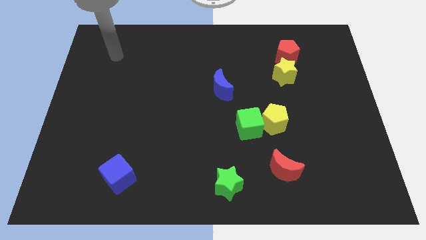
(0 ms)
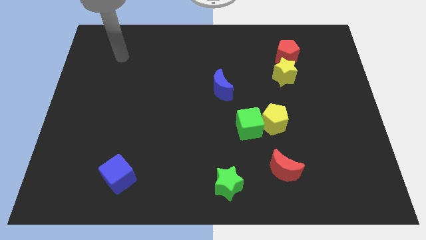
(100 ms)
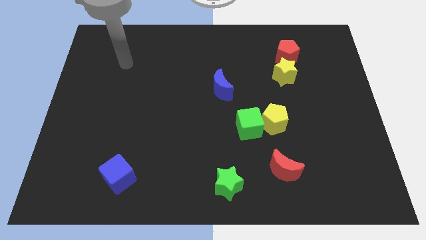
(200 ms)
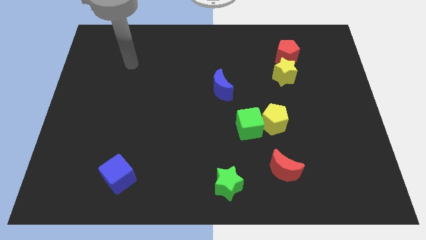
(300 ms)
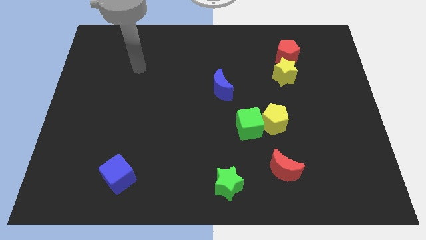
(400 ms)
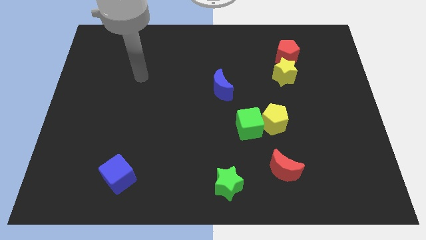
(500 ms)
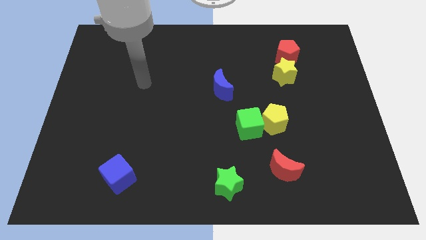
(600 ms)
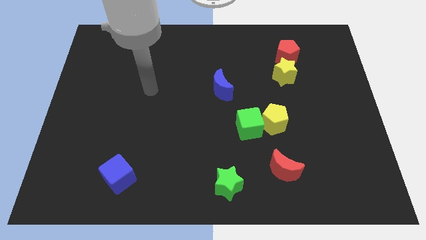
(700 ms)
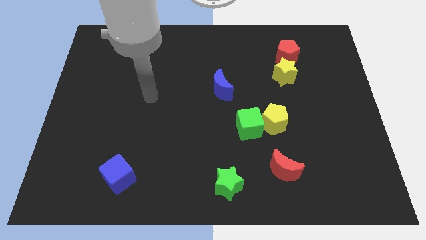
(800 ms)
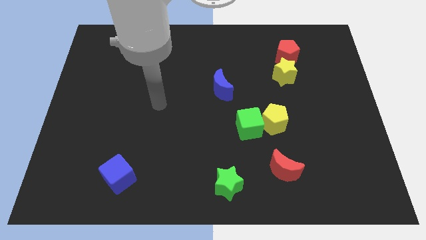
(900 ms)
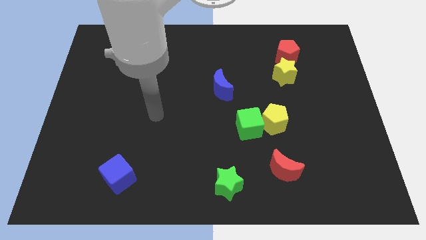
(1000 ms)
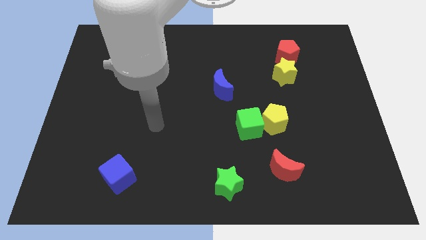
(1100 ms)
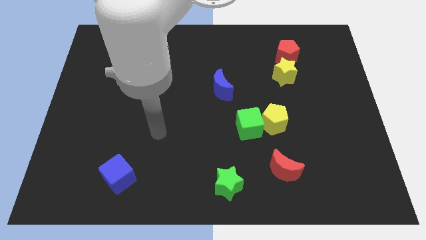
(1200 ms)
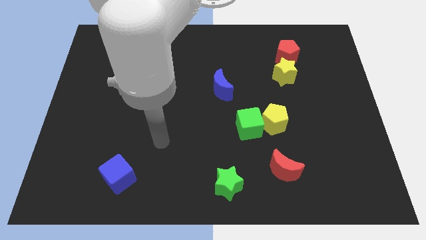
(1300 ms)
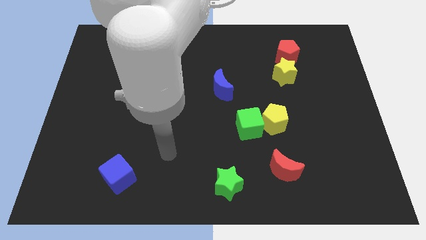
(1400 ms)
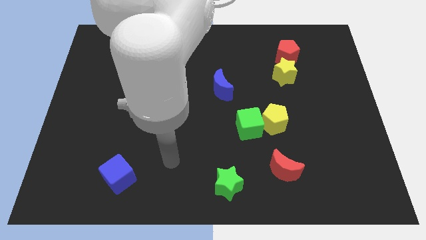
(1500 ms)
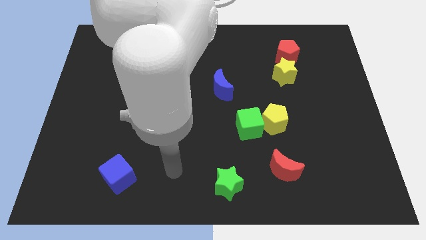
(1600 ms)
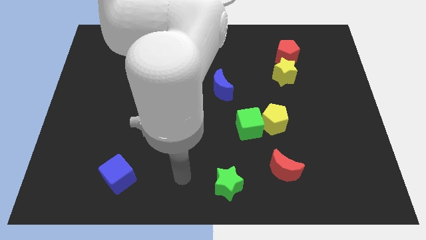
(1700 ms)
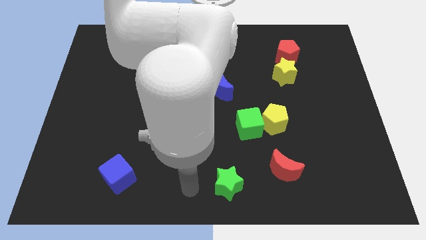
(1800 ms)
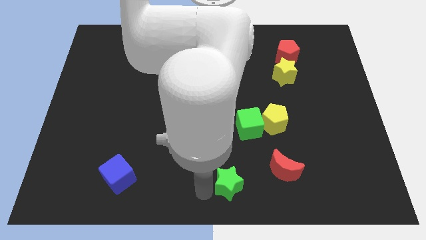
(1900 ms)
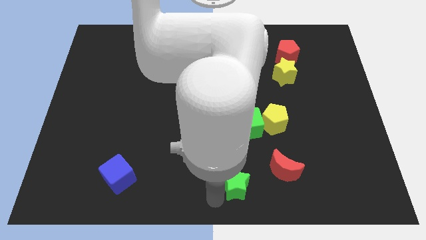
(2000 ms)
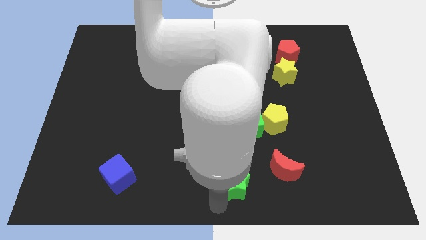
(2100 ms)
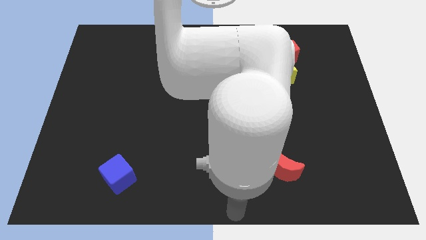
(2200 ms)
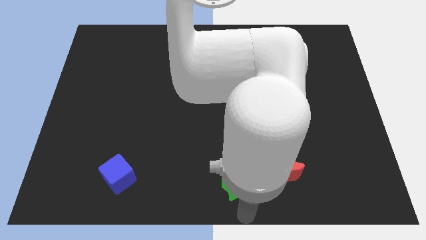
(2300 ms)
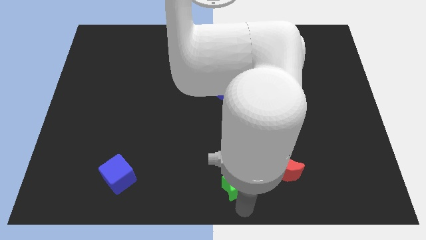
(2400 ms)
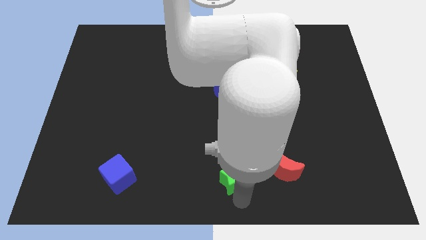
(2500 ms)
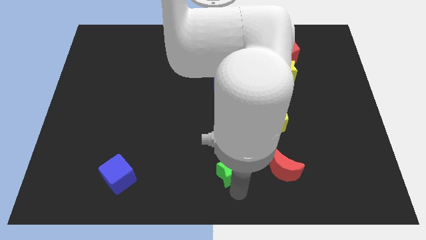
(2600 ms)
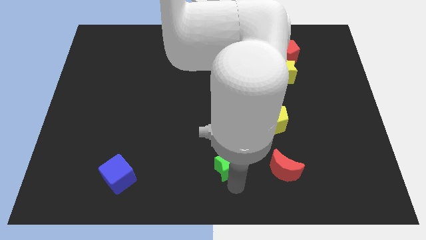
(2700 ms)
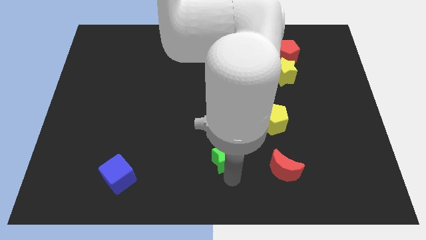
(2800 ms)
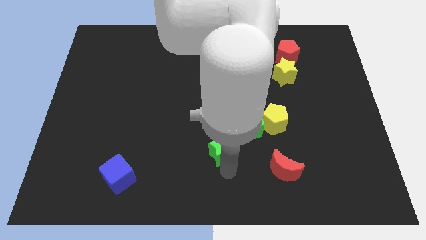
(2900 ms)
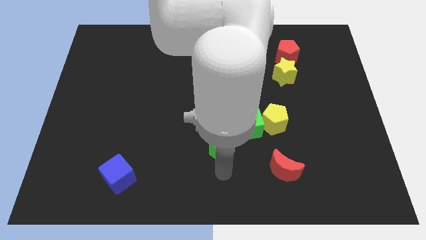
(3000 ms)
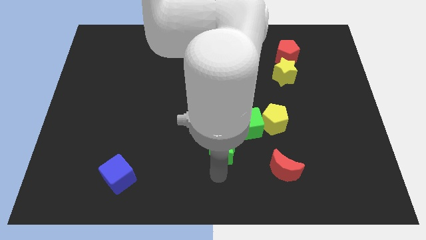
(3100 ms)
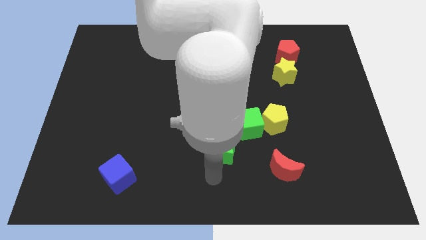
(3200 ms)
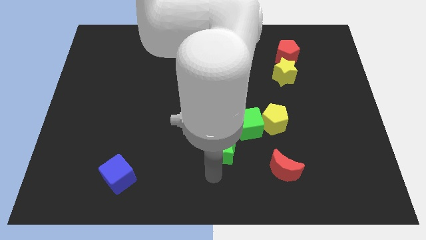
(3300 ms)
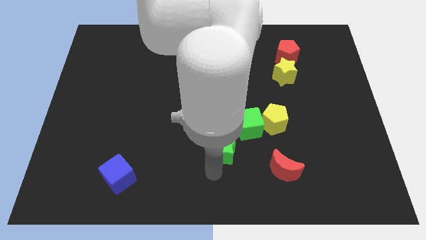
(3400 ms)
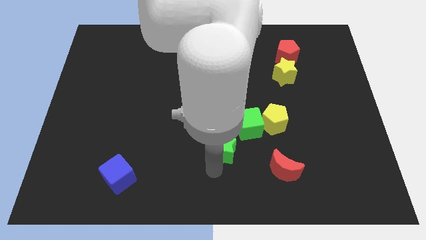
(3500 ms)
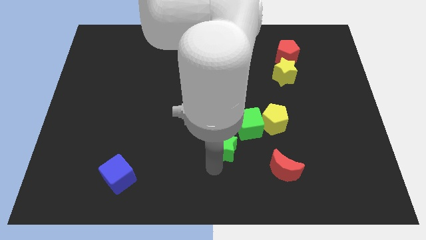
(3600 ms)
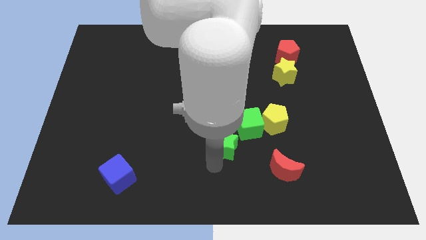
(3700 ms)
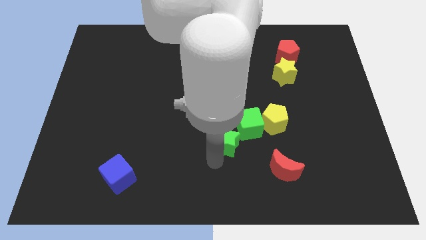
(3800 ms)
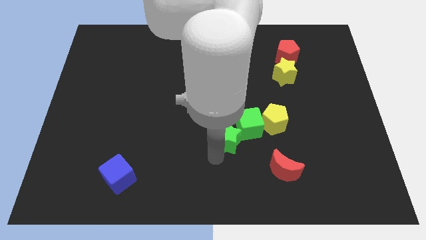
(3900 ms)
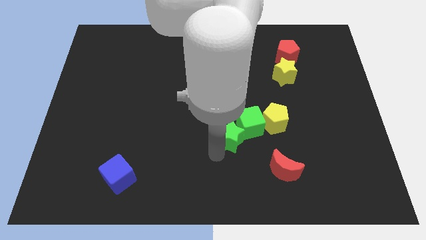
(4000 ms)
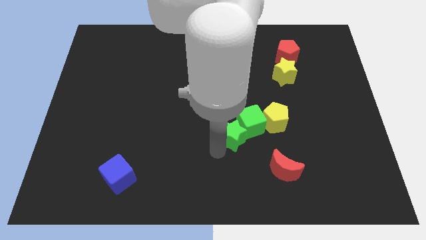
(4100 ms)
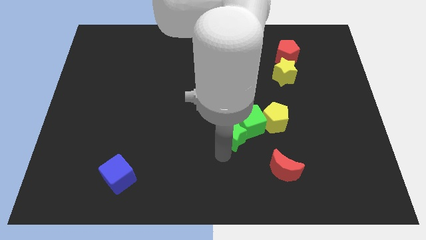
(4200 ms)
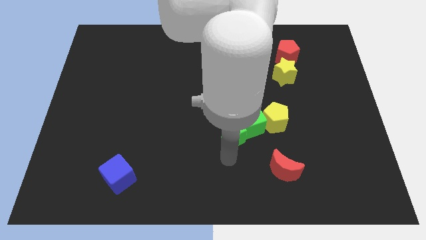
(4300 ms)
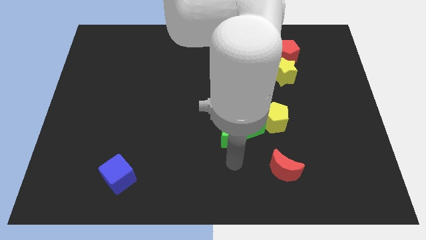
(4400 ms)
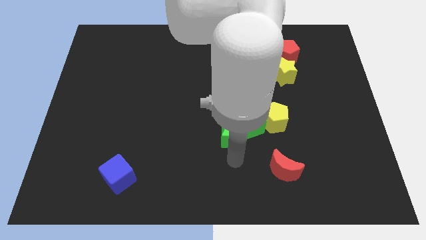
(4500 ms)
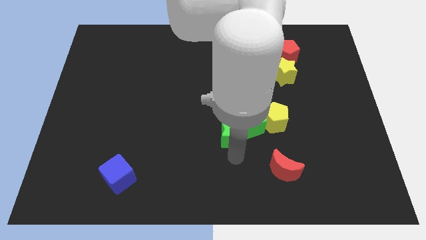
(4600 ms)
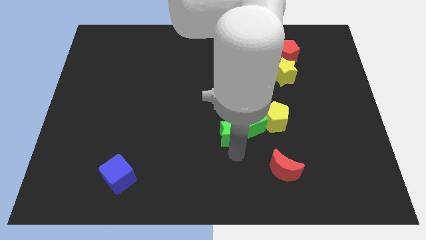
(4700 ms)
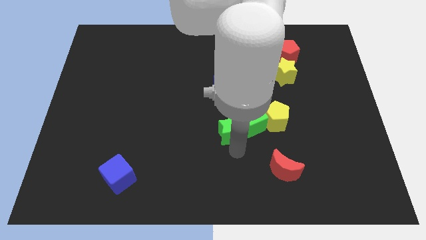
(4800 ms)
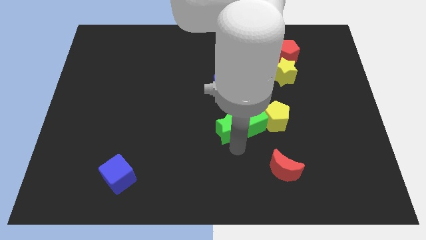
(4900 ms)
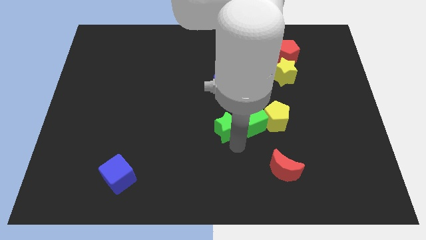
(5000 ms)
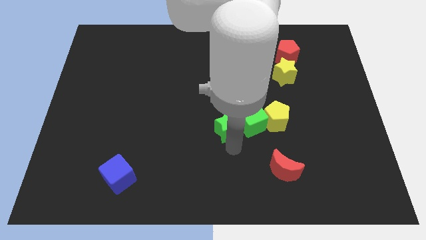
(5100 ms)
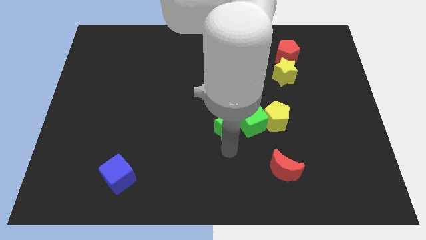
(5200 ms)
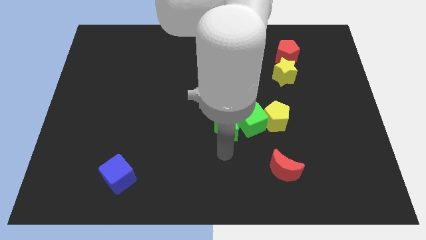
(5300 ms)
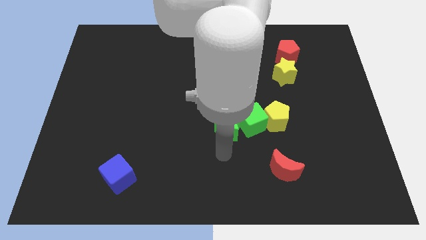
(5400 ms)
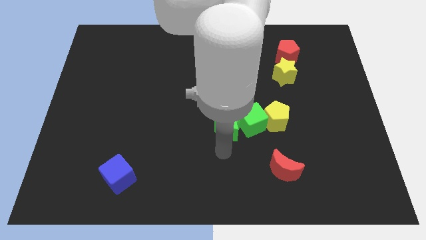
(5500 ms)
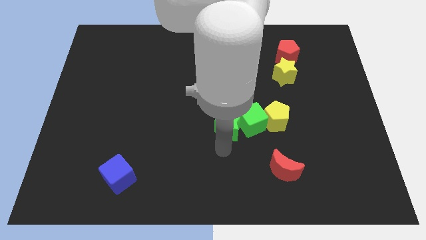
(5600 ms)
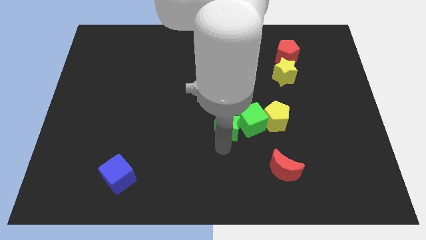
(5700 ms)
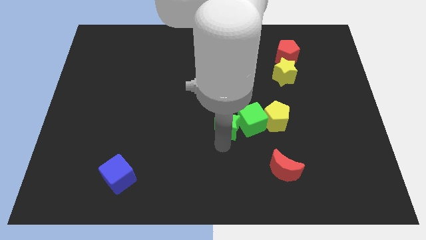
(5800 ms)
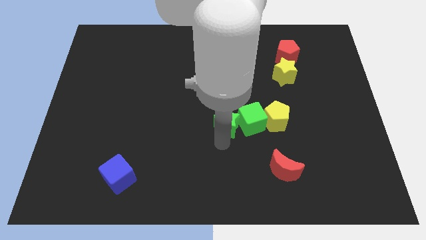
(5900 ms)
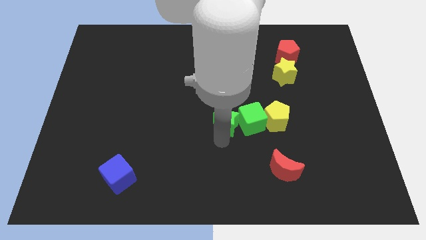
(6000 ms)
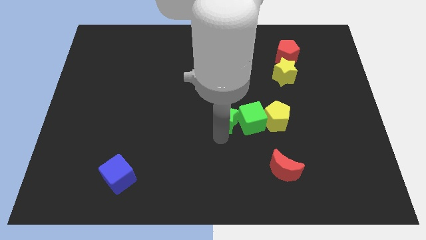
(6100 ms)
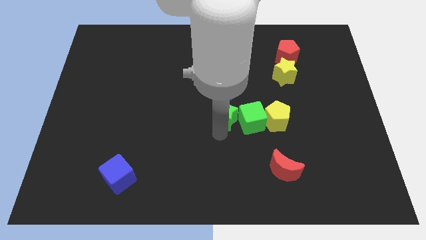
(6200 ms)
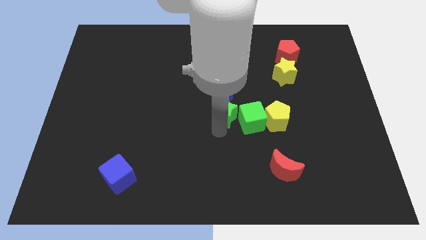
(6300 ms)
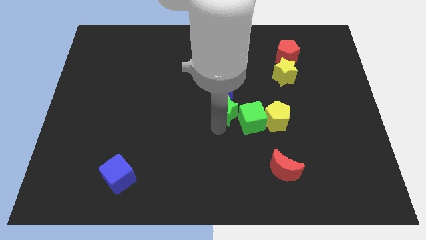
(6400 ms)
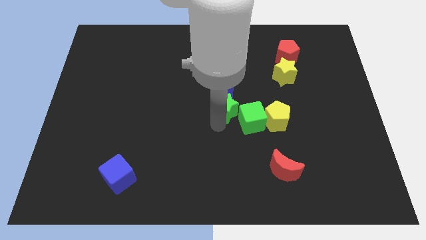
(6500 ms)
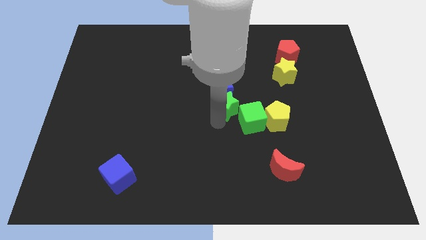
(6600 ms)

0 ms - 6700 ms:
slide the green star upwards

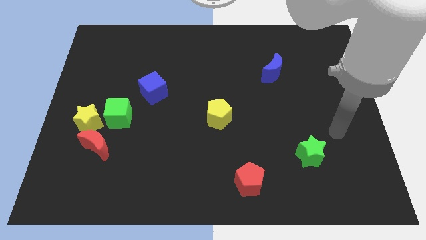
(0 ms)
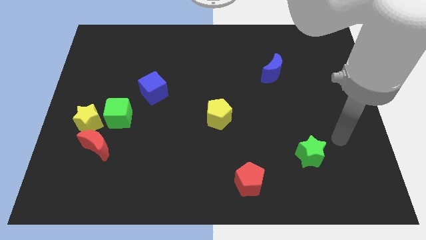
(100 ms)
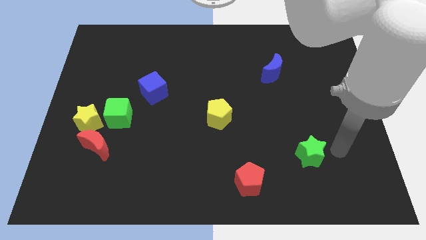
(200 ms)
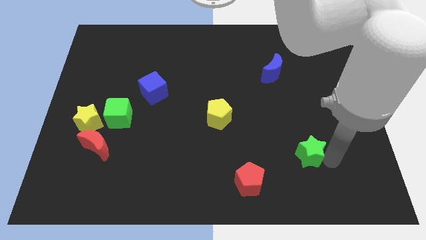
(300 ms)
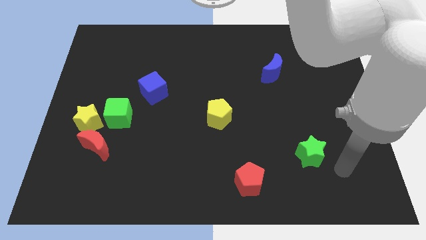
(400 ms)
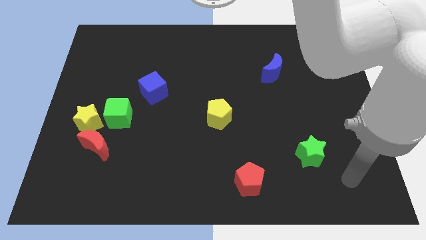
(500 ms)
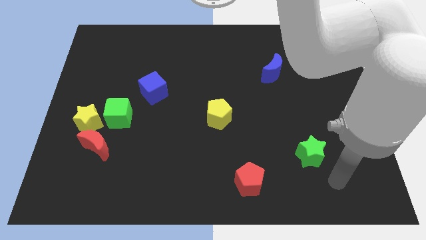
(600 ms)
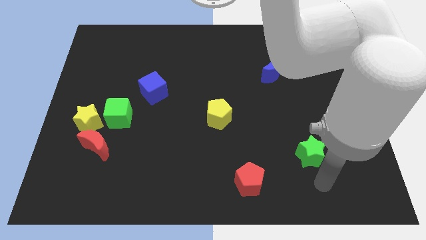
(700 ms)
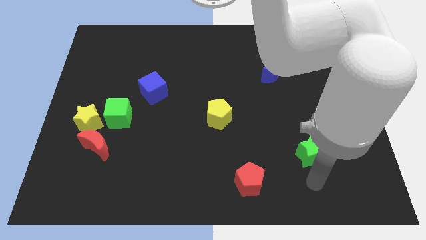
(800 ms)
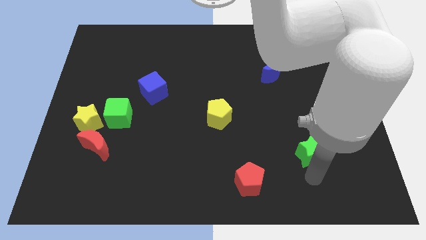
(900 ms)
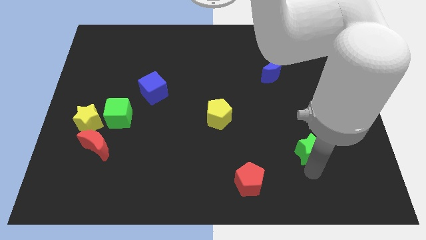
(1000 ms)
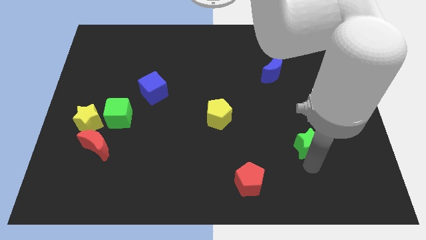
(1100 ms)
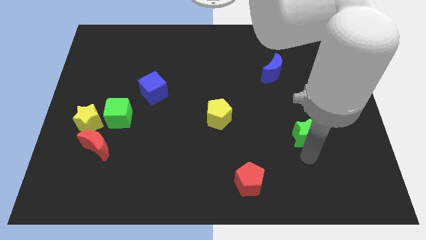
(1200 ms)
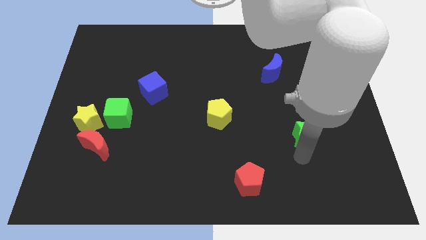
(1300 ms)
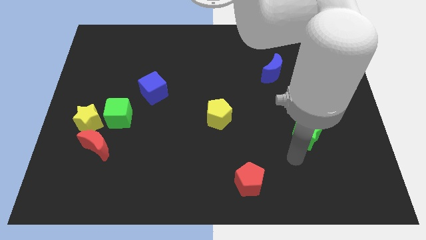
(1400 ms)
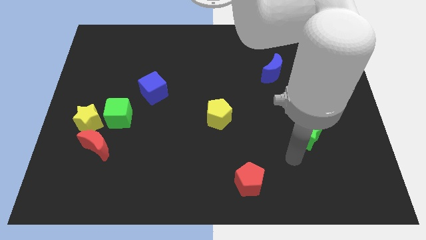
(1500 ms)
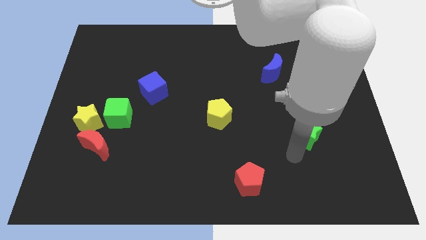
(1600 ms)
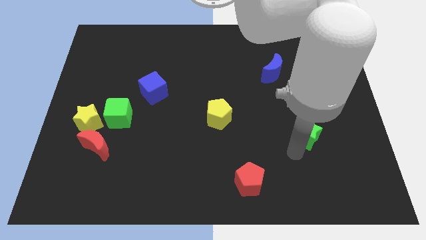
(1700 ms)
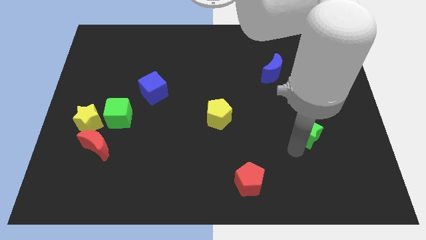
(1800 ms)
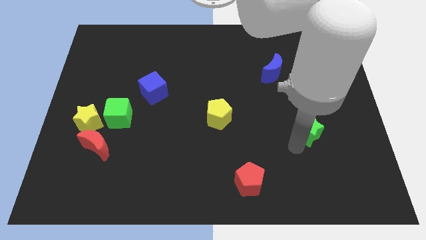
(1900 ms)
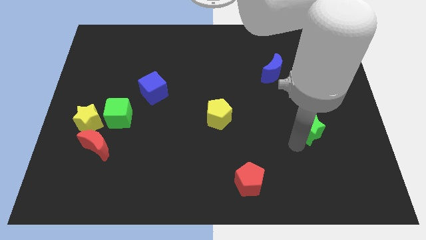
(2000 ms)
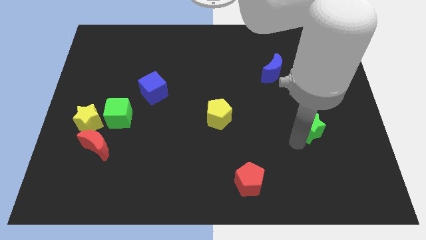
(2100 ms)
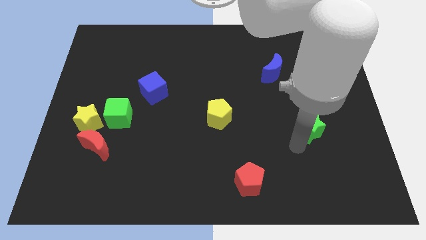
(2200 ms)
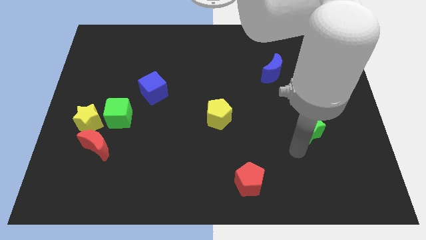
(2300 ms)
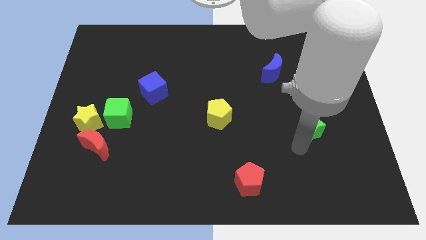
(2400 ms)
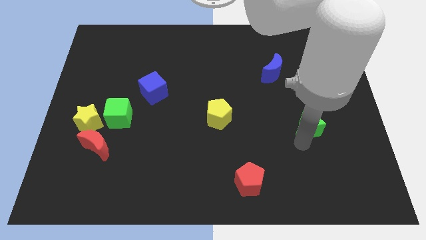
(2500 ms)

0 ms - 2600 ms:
slightly push the green star upwards
